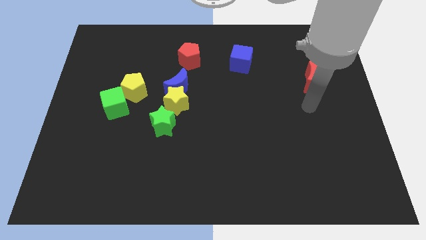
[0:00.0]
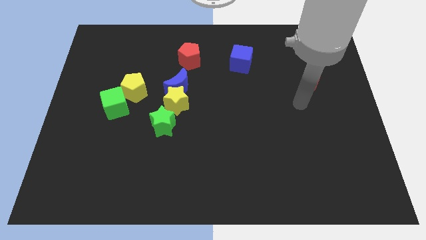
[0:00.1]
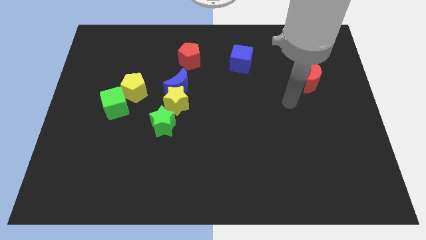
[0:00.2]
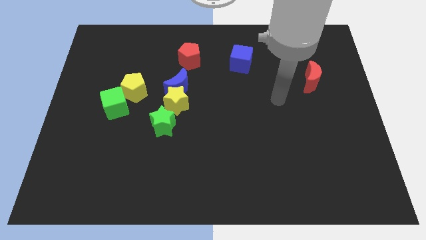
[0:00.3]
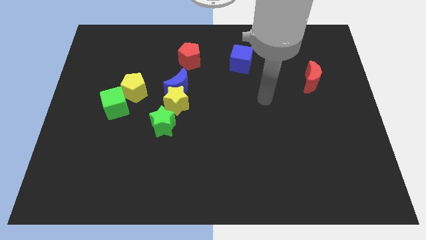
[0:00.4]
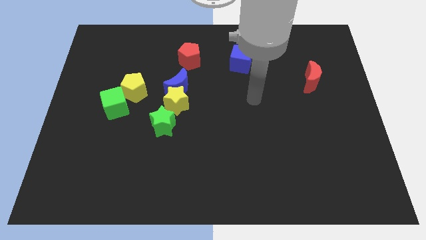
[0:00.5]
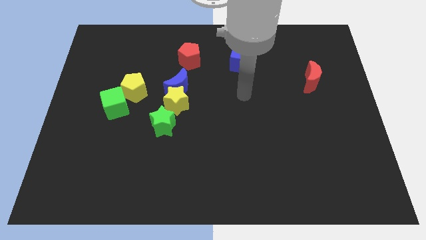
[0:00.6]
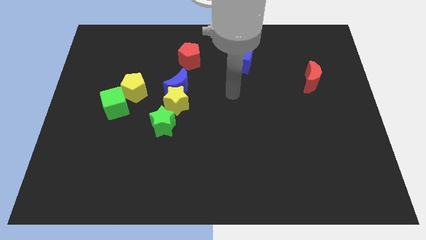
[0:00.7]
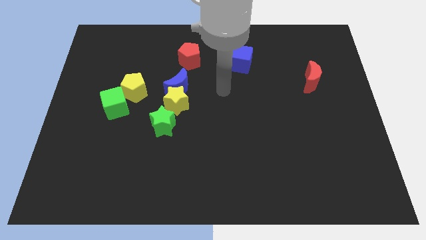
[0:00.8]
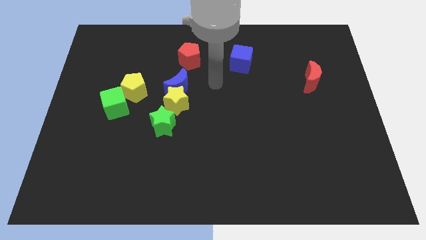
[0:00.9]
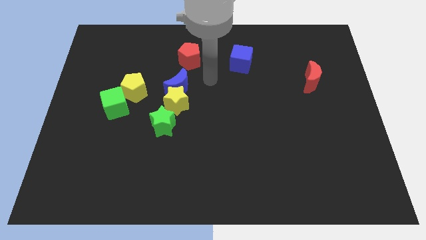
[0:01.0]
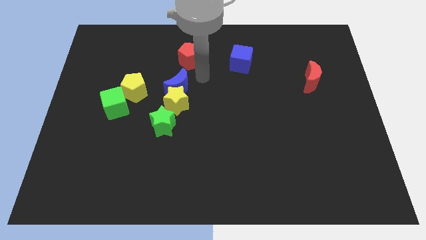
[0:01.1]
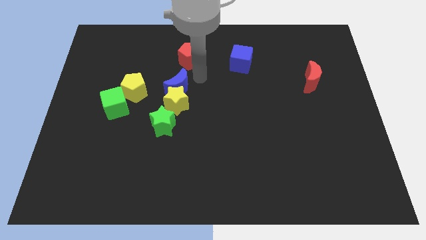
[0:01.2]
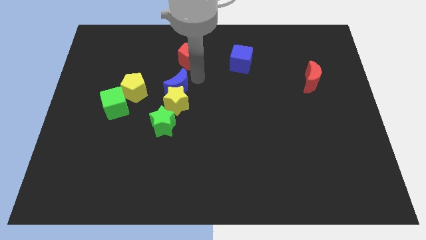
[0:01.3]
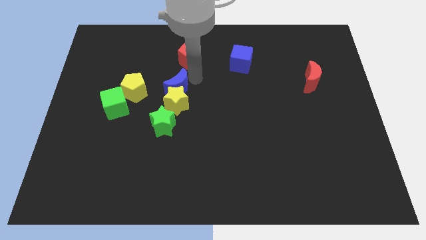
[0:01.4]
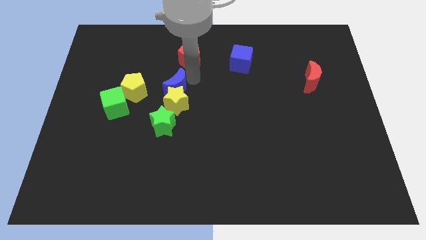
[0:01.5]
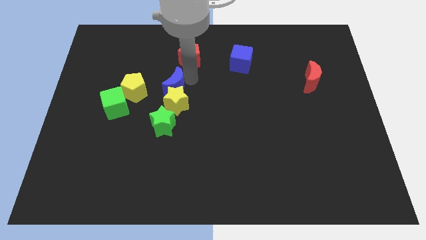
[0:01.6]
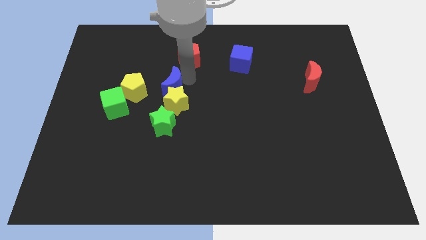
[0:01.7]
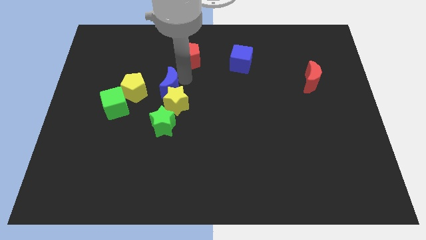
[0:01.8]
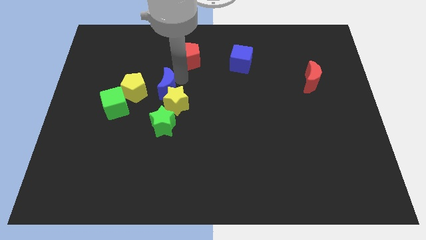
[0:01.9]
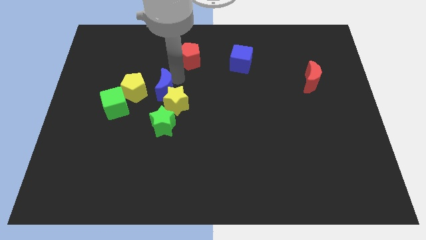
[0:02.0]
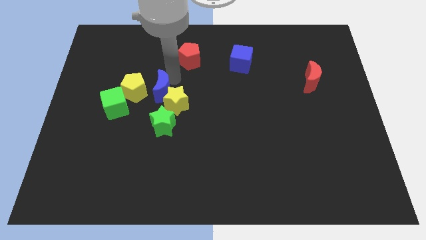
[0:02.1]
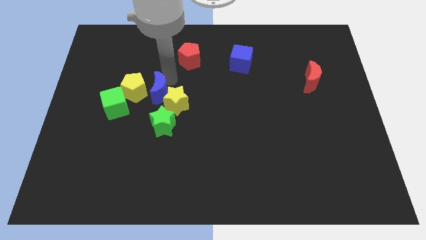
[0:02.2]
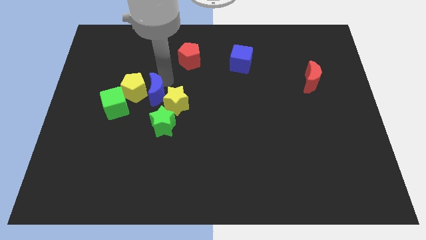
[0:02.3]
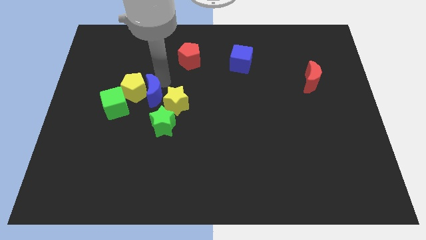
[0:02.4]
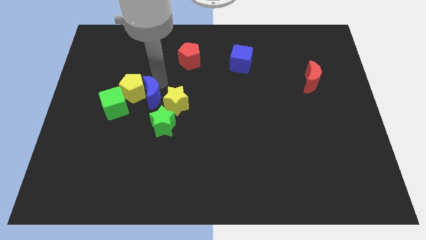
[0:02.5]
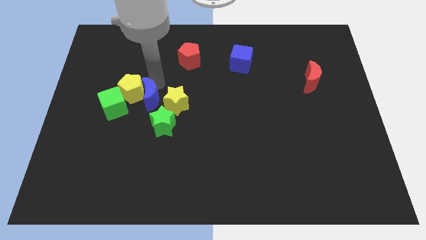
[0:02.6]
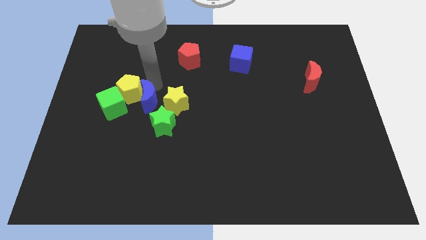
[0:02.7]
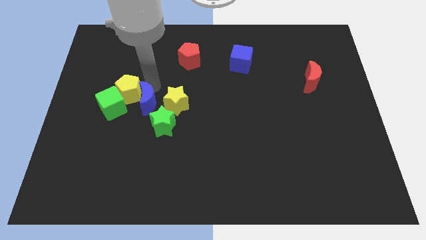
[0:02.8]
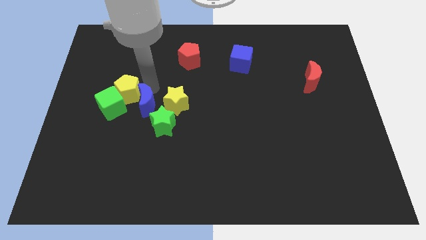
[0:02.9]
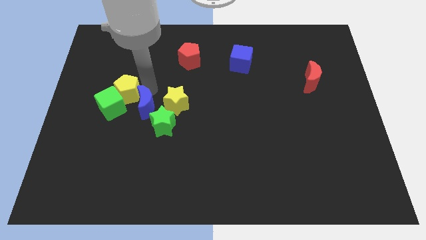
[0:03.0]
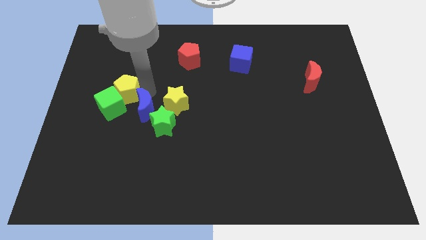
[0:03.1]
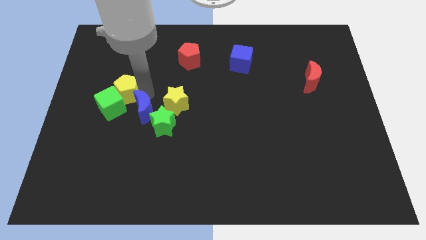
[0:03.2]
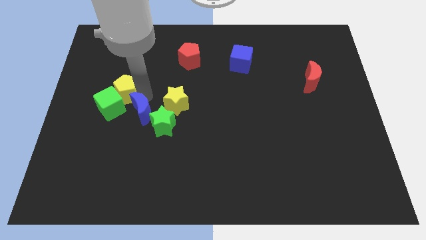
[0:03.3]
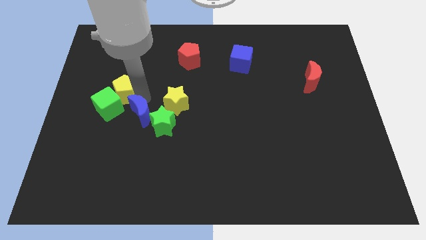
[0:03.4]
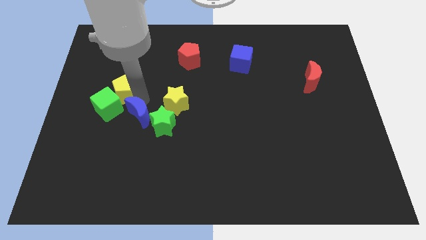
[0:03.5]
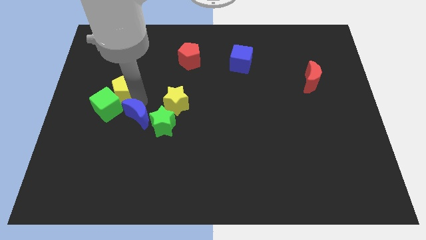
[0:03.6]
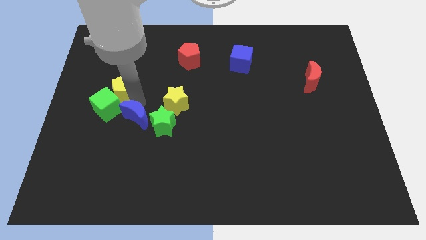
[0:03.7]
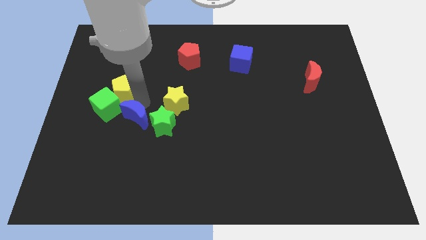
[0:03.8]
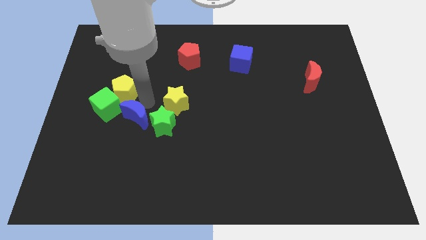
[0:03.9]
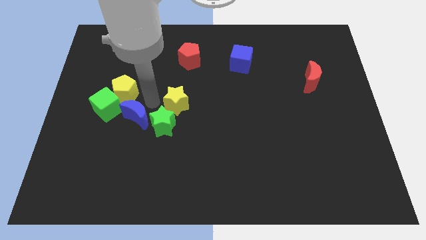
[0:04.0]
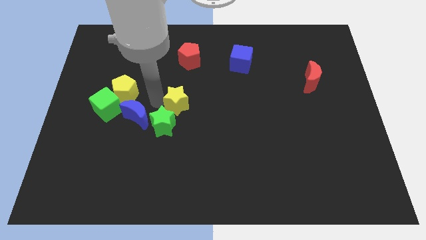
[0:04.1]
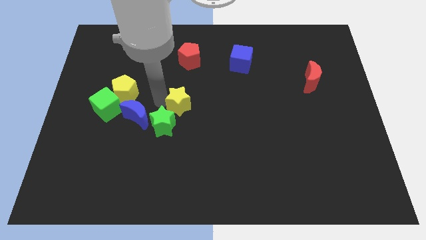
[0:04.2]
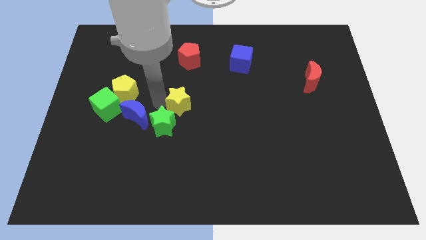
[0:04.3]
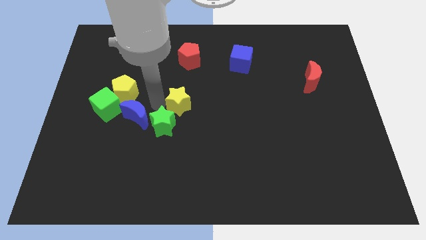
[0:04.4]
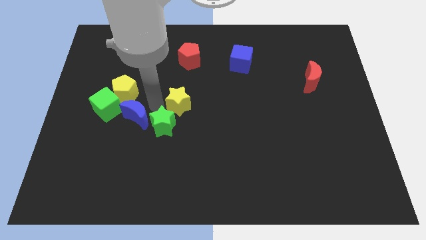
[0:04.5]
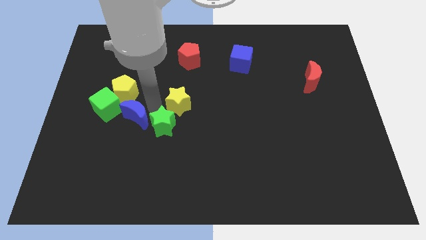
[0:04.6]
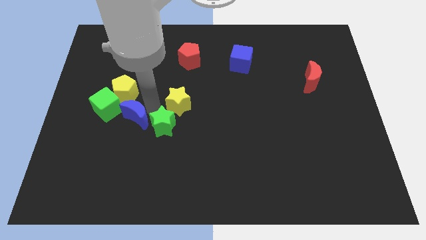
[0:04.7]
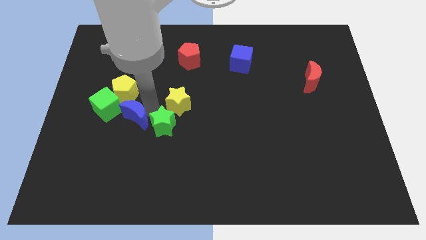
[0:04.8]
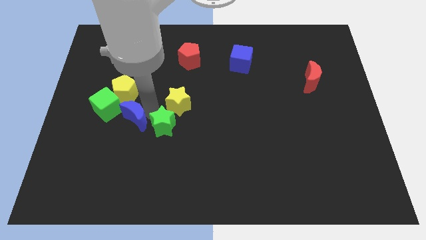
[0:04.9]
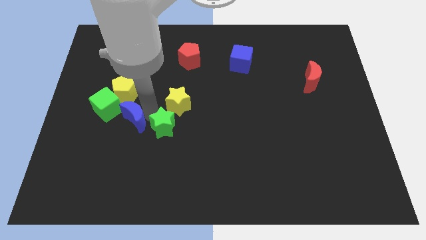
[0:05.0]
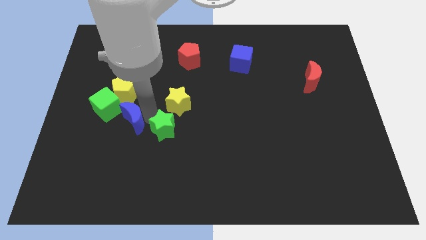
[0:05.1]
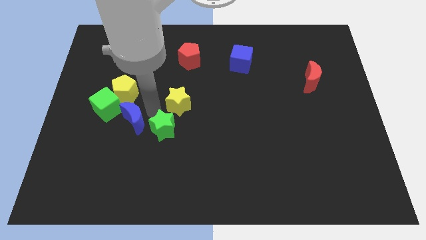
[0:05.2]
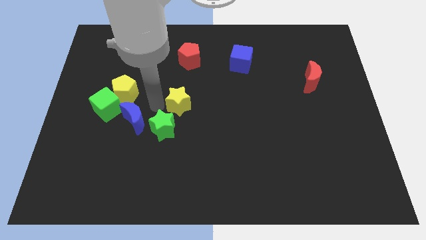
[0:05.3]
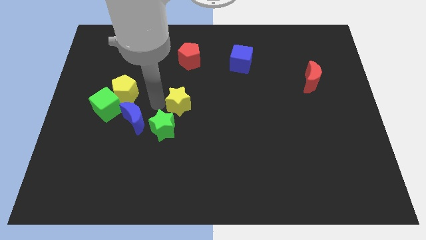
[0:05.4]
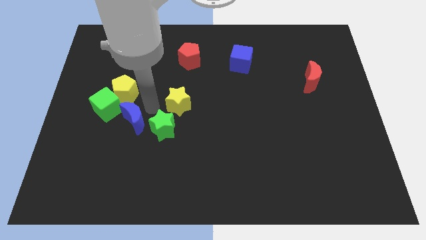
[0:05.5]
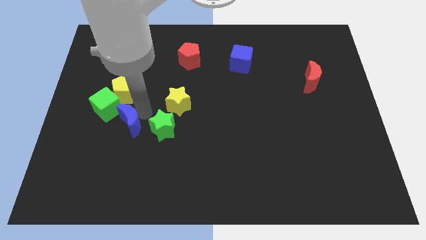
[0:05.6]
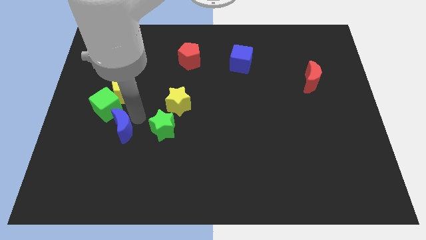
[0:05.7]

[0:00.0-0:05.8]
push the blue moon below the green cube

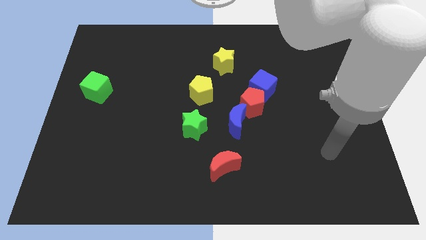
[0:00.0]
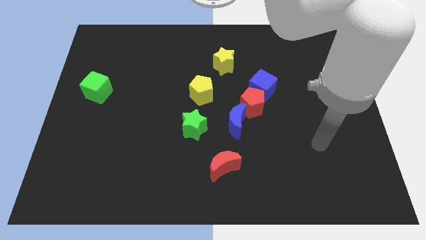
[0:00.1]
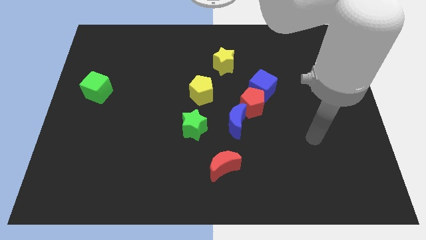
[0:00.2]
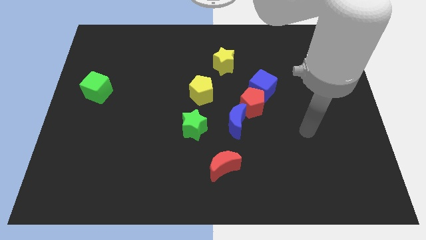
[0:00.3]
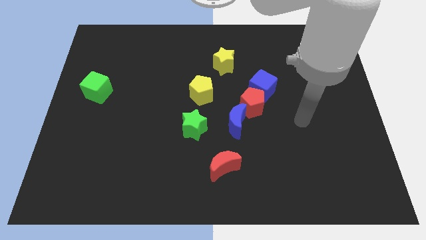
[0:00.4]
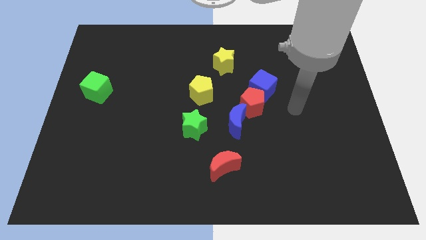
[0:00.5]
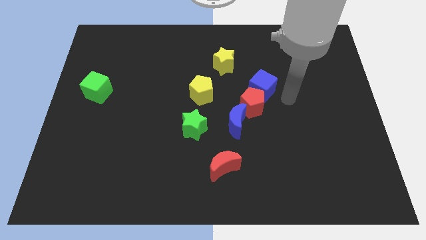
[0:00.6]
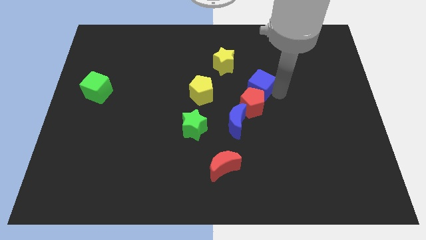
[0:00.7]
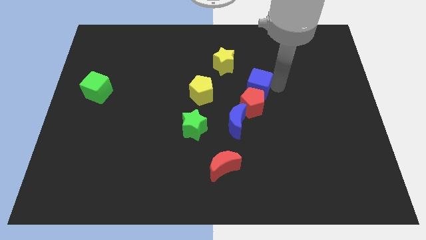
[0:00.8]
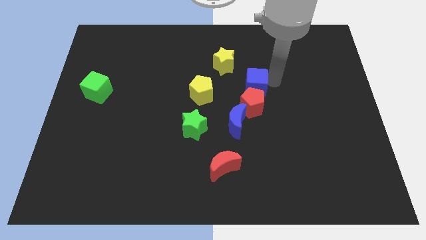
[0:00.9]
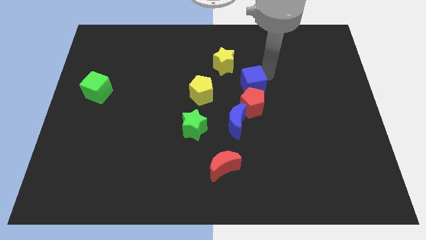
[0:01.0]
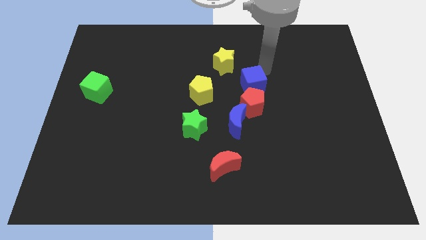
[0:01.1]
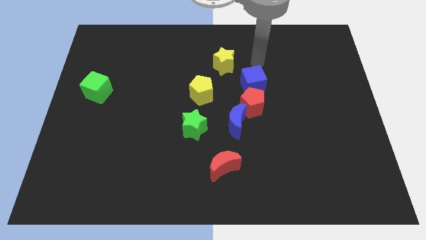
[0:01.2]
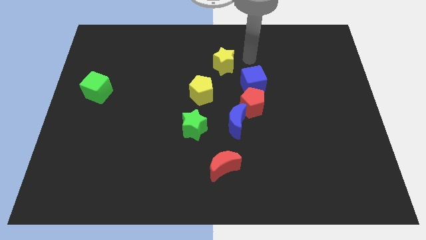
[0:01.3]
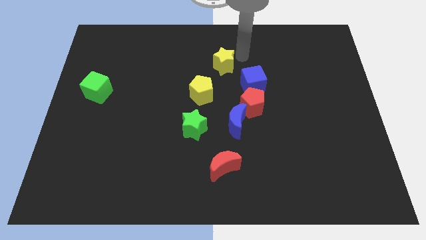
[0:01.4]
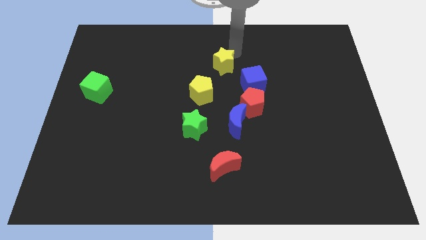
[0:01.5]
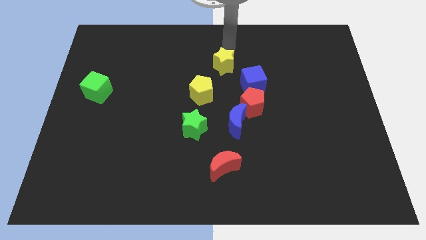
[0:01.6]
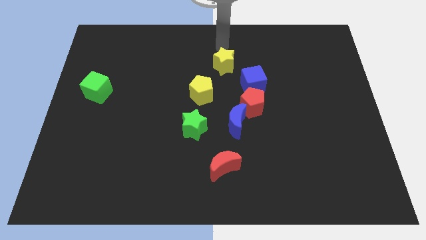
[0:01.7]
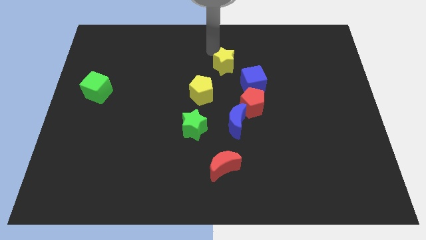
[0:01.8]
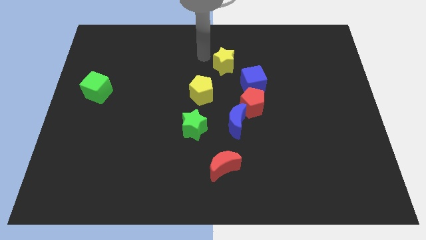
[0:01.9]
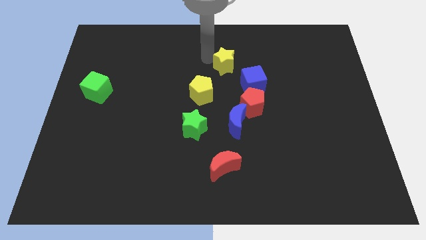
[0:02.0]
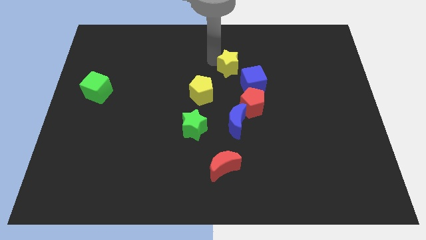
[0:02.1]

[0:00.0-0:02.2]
move the yellow star to the top side of the red pentagon
